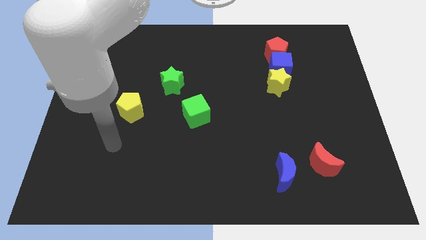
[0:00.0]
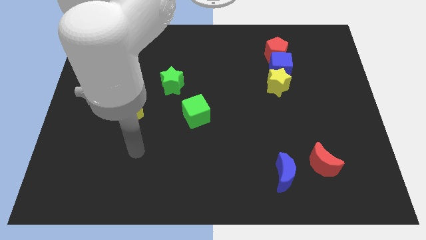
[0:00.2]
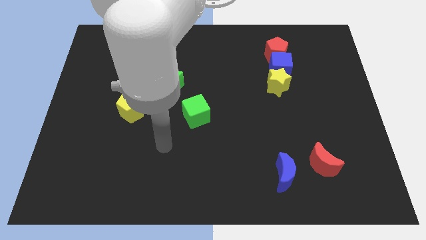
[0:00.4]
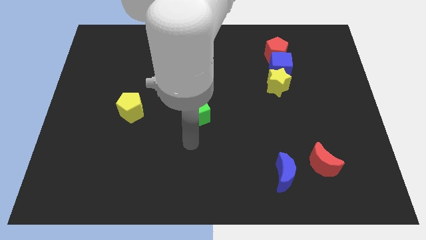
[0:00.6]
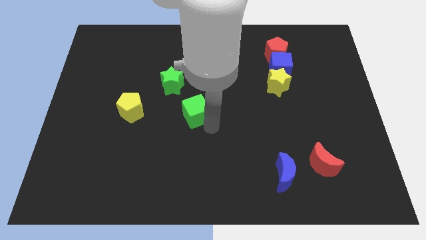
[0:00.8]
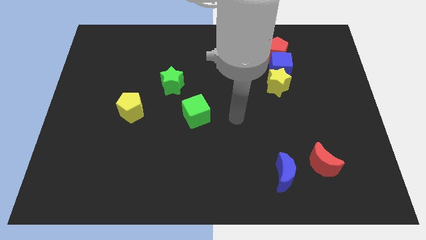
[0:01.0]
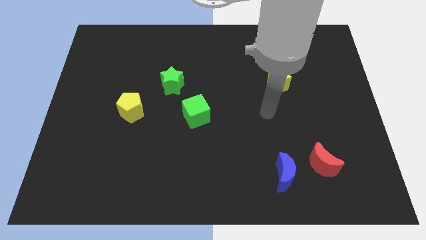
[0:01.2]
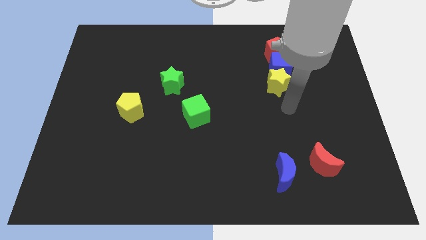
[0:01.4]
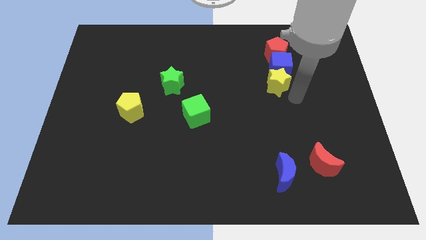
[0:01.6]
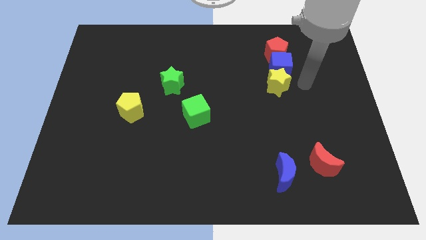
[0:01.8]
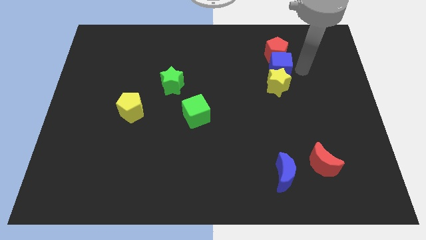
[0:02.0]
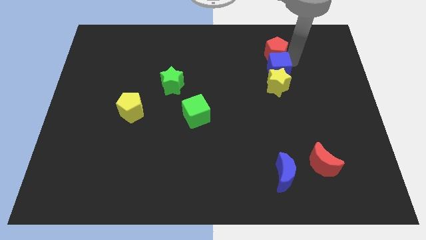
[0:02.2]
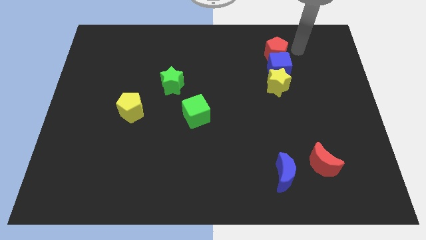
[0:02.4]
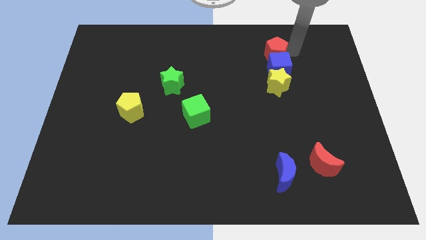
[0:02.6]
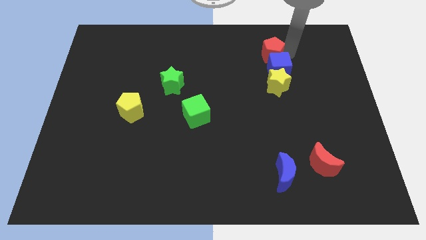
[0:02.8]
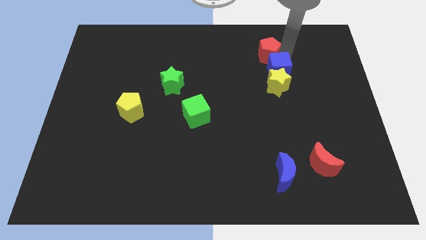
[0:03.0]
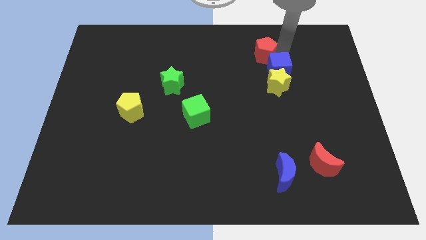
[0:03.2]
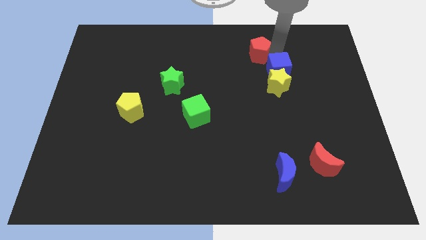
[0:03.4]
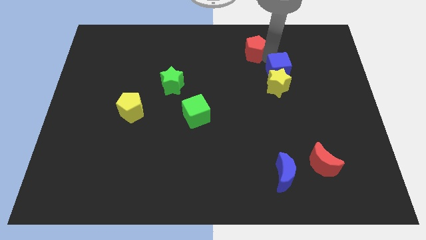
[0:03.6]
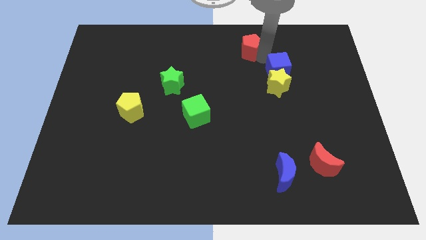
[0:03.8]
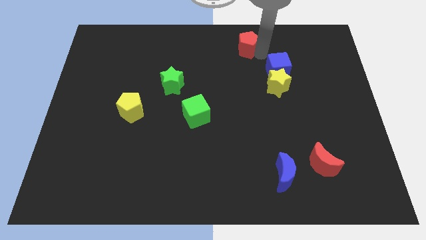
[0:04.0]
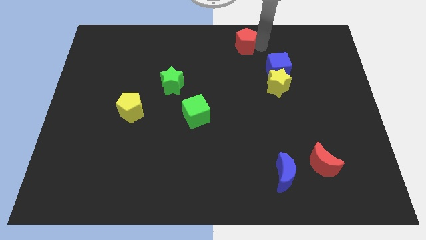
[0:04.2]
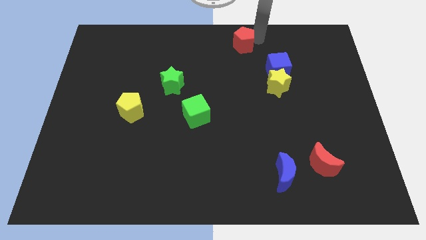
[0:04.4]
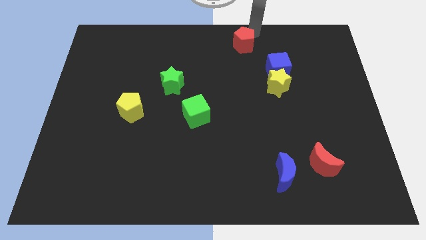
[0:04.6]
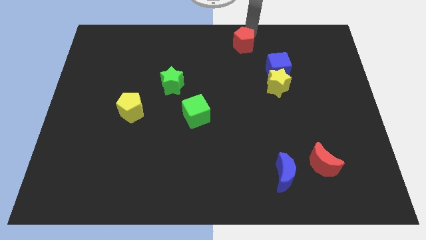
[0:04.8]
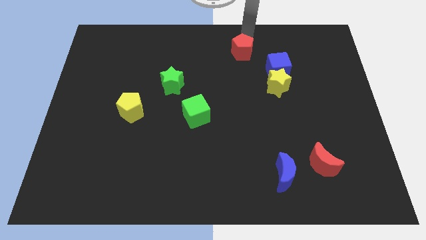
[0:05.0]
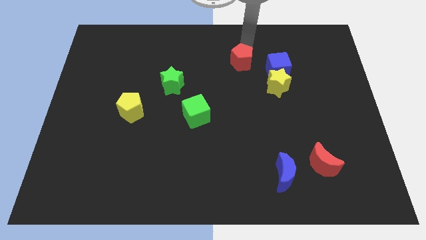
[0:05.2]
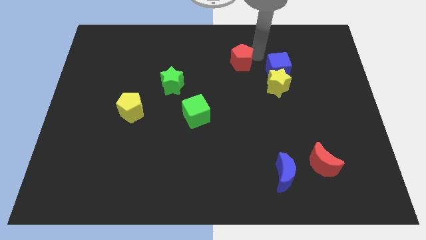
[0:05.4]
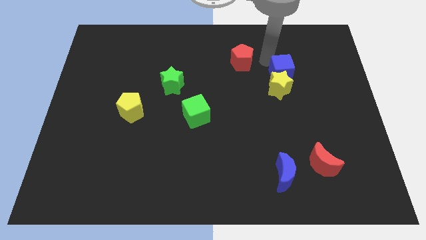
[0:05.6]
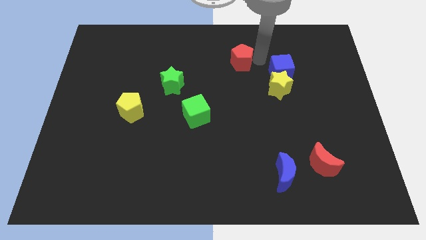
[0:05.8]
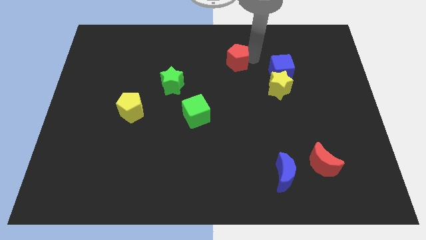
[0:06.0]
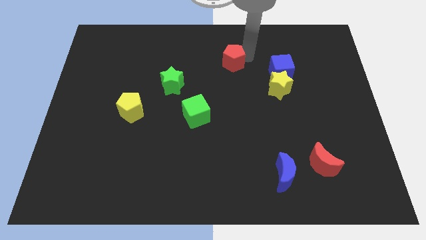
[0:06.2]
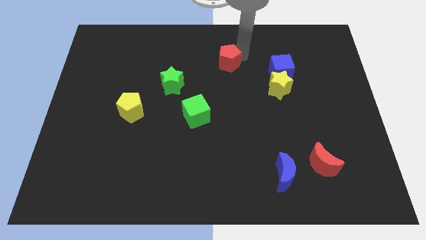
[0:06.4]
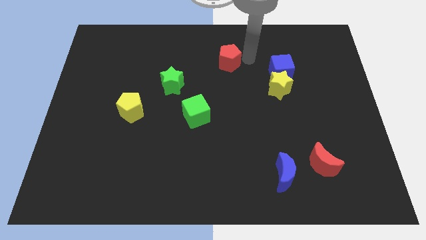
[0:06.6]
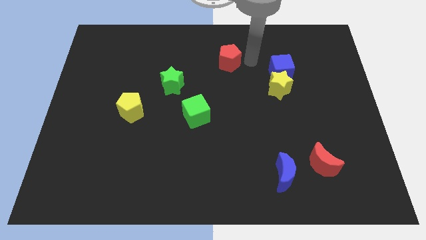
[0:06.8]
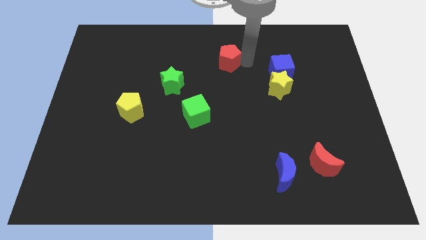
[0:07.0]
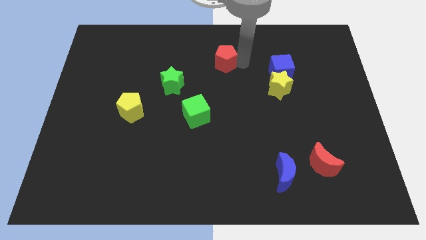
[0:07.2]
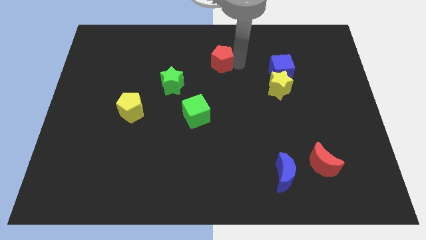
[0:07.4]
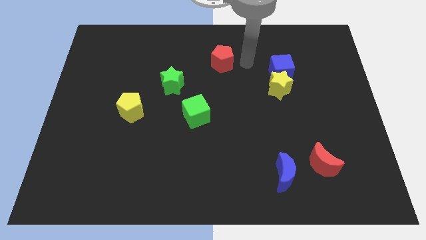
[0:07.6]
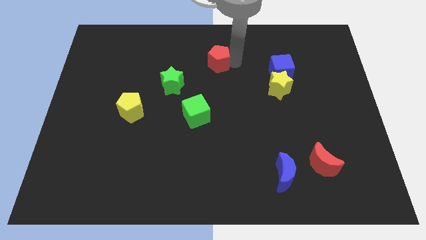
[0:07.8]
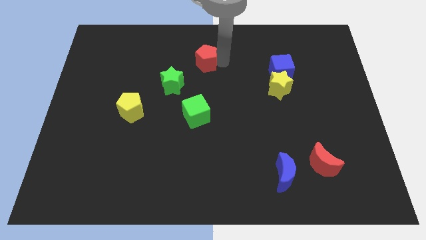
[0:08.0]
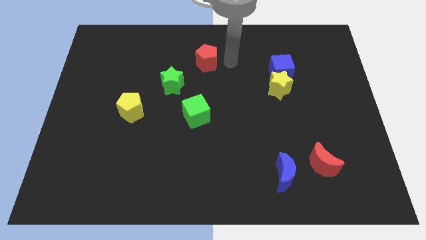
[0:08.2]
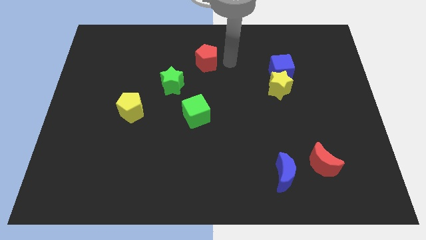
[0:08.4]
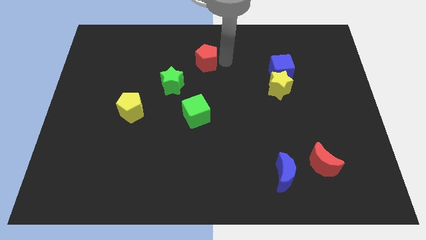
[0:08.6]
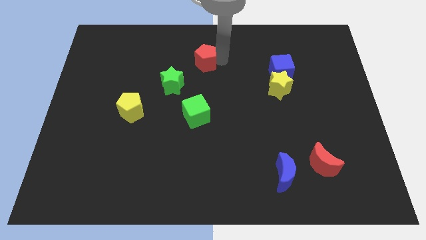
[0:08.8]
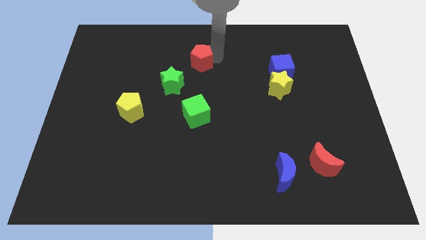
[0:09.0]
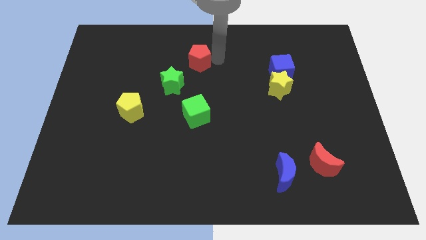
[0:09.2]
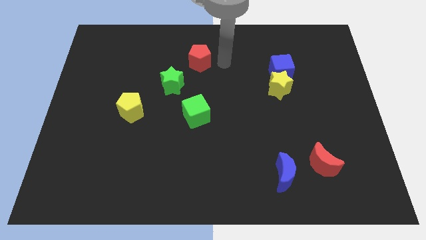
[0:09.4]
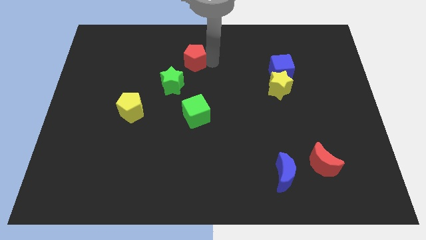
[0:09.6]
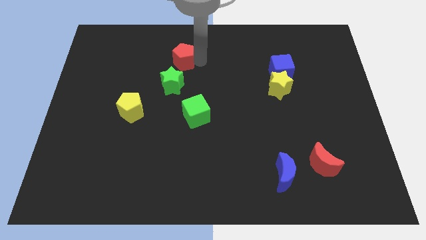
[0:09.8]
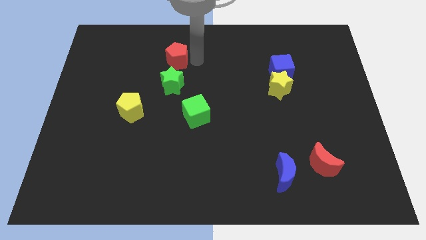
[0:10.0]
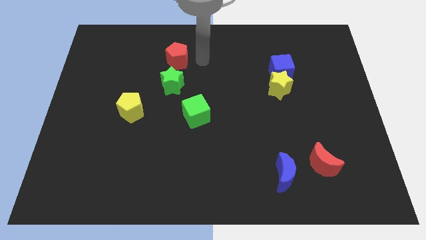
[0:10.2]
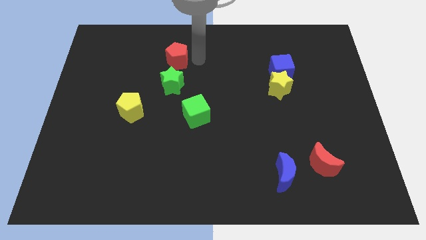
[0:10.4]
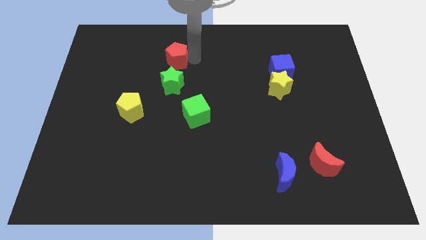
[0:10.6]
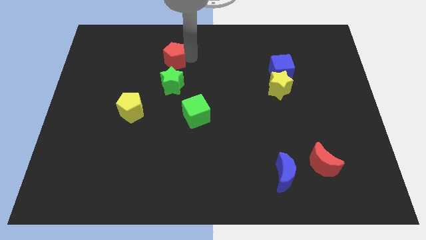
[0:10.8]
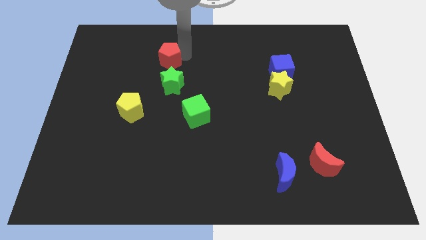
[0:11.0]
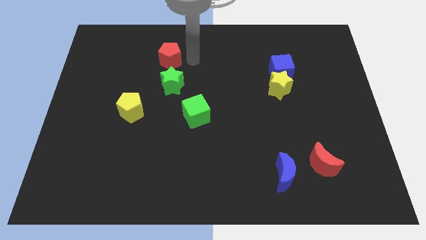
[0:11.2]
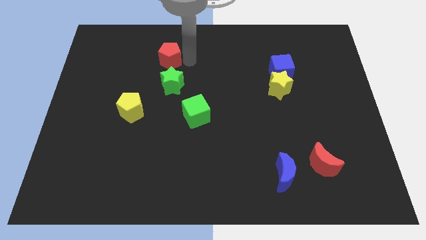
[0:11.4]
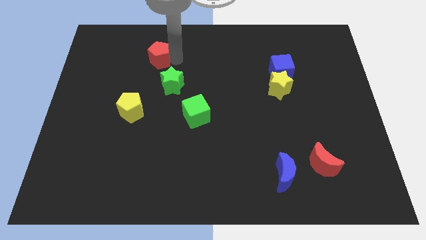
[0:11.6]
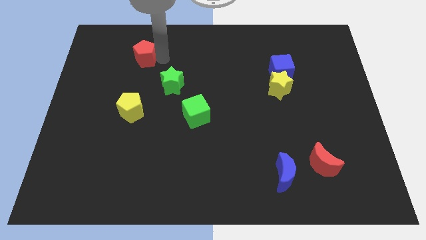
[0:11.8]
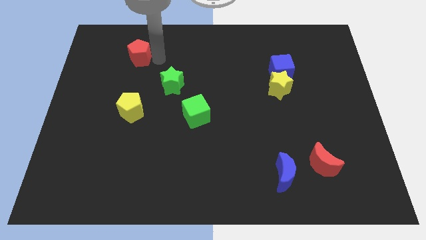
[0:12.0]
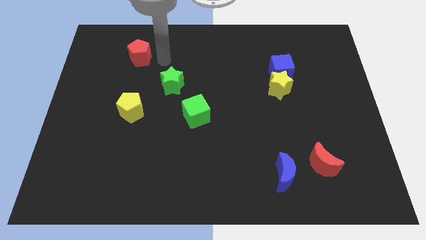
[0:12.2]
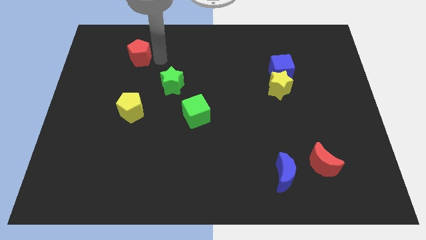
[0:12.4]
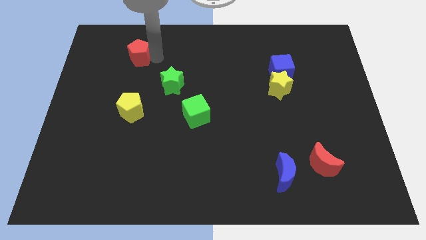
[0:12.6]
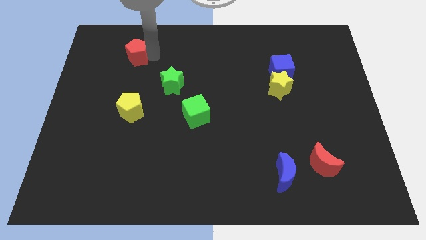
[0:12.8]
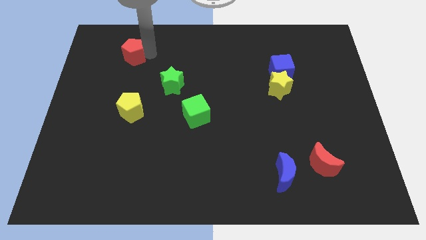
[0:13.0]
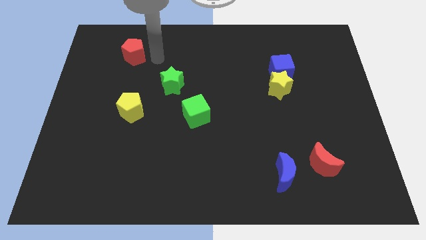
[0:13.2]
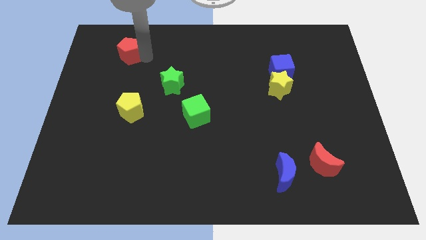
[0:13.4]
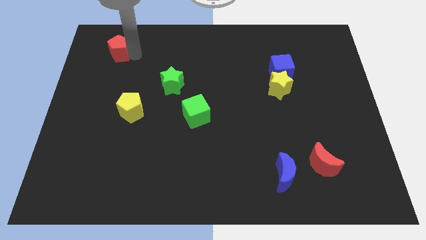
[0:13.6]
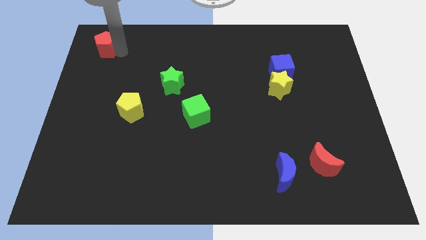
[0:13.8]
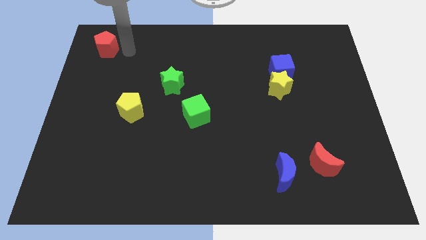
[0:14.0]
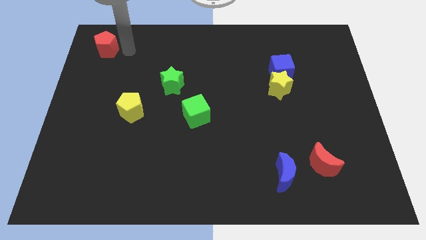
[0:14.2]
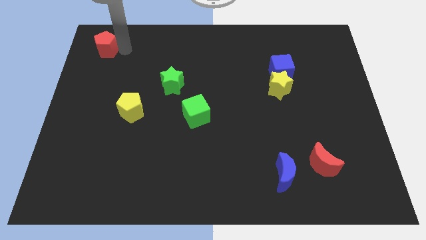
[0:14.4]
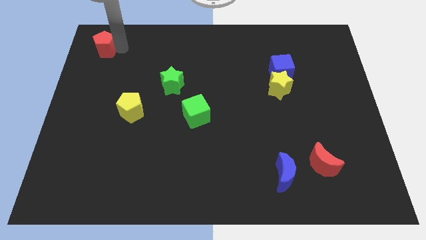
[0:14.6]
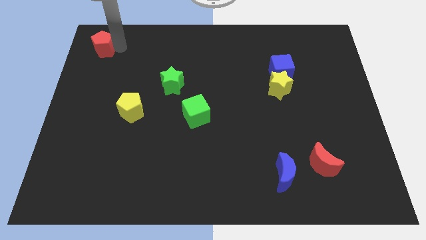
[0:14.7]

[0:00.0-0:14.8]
push the red pentagon to the top left of the board
